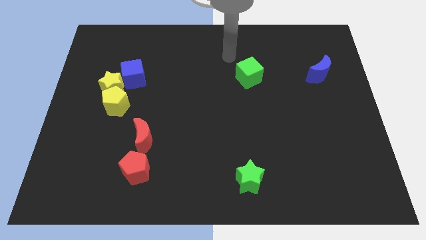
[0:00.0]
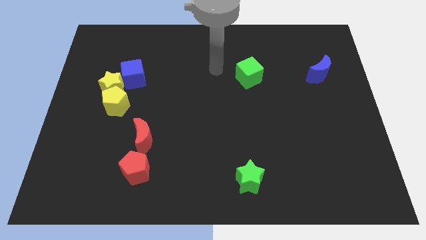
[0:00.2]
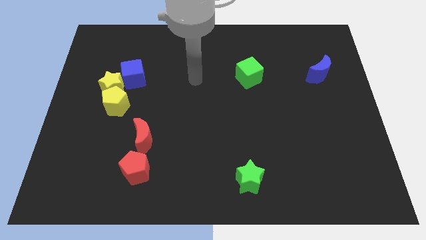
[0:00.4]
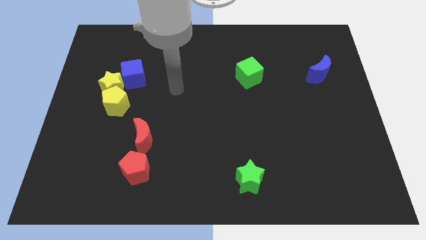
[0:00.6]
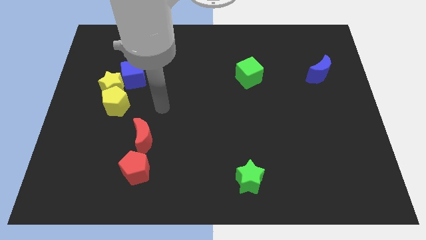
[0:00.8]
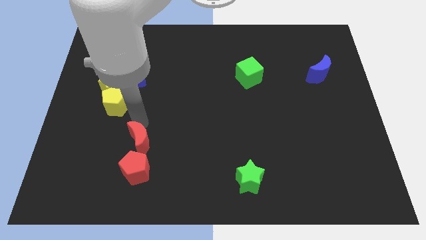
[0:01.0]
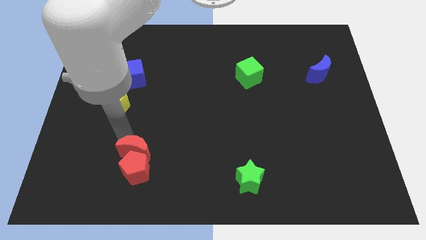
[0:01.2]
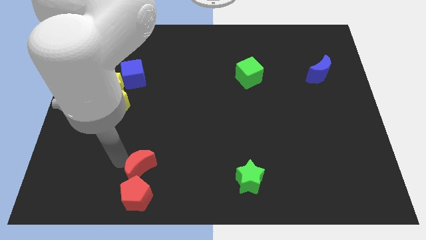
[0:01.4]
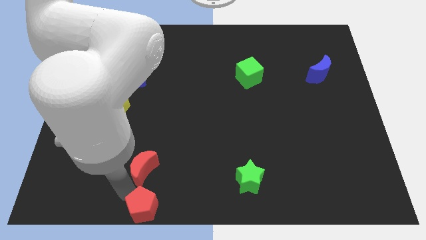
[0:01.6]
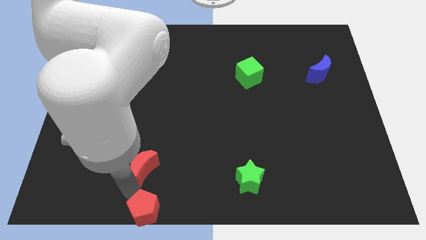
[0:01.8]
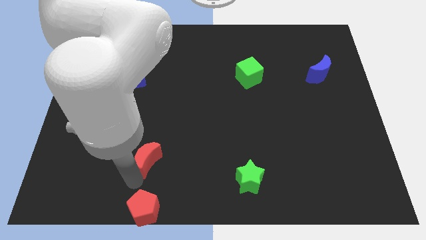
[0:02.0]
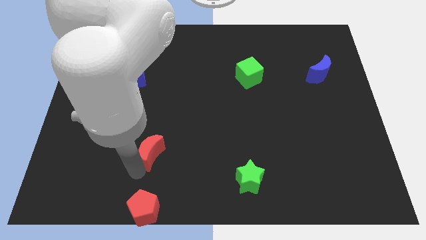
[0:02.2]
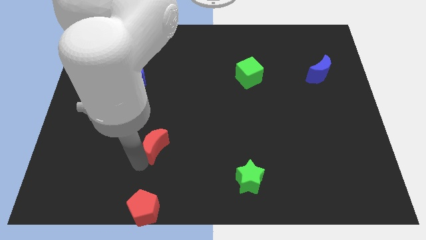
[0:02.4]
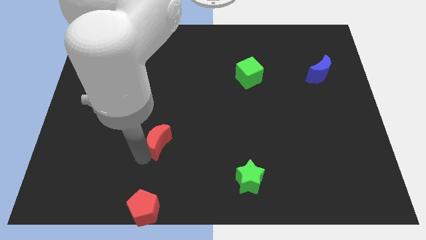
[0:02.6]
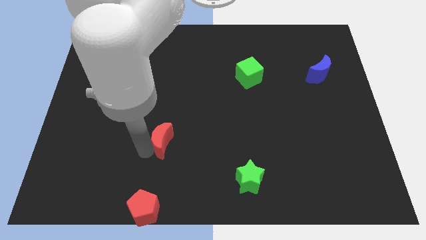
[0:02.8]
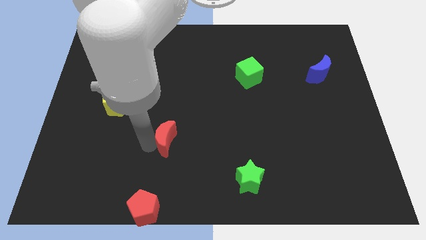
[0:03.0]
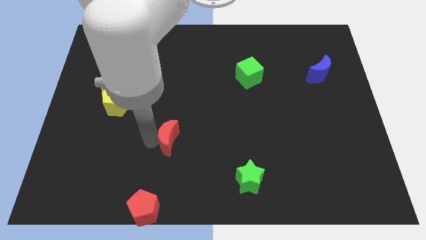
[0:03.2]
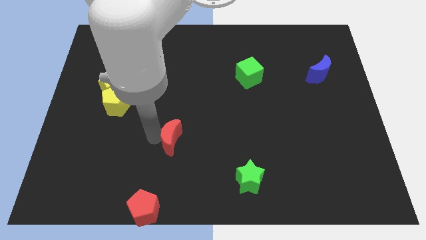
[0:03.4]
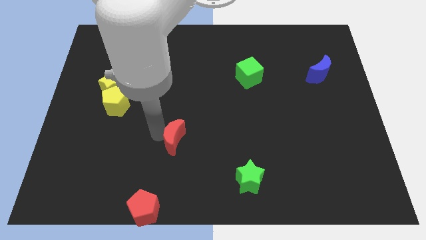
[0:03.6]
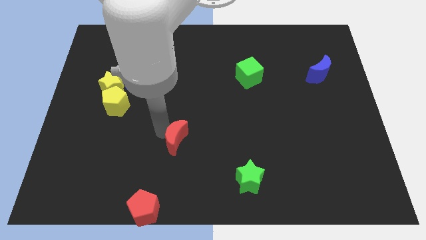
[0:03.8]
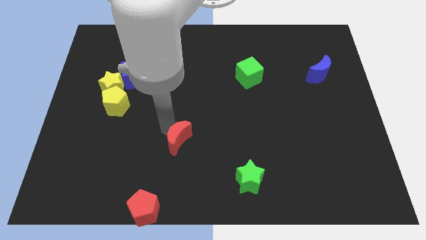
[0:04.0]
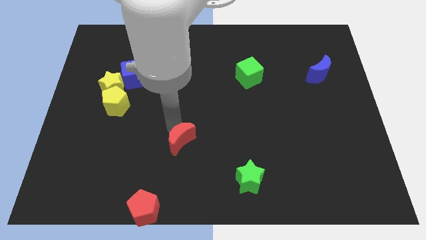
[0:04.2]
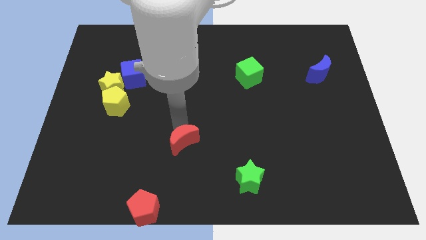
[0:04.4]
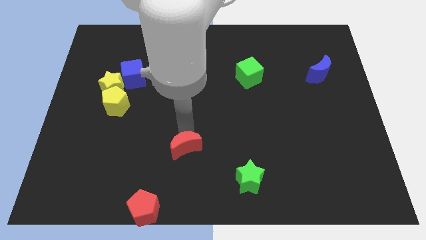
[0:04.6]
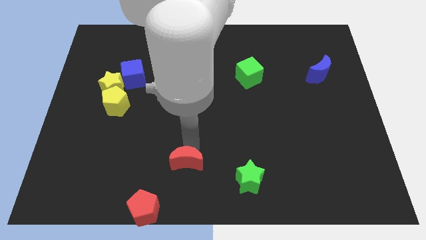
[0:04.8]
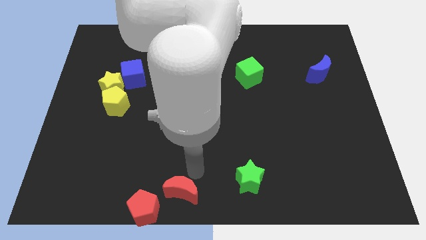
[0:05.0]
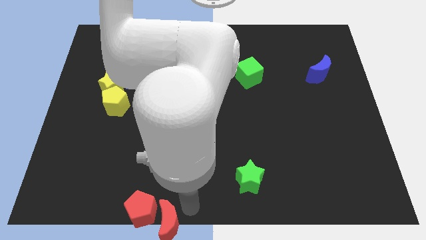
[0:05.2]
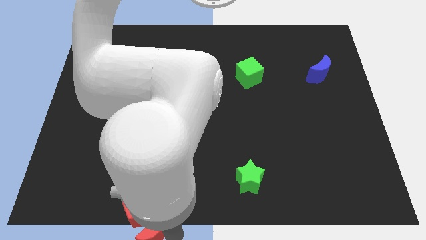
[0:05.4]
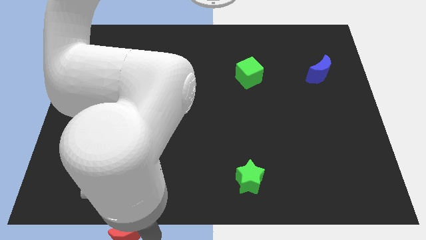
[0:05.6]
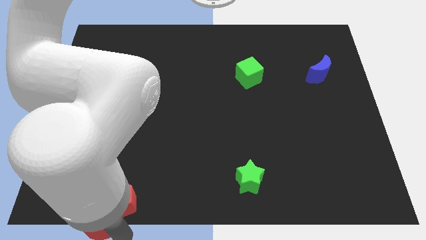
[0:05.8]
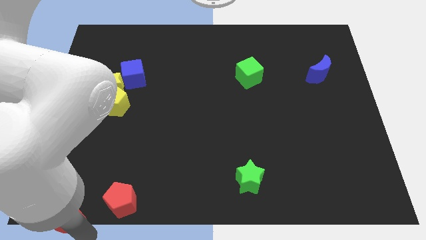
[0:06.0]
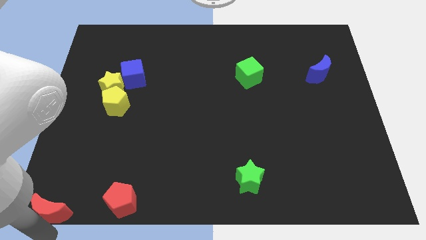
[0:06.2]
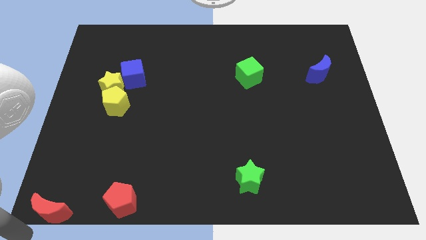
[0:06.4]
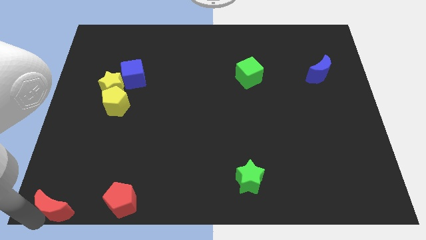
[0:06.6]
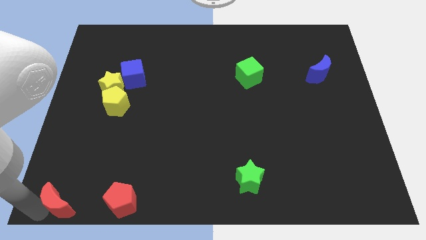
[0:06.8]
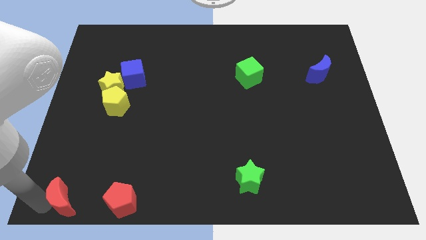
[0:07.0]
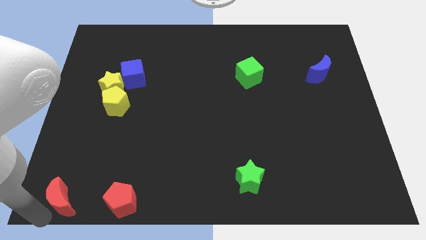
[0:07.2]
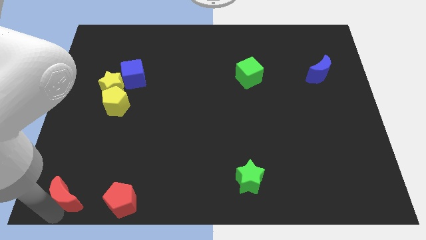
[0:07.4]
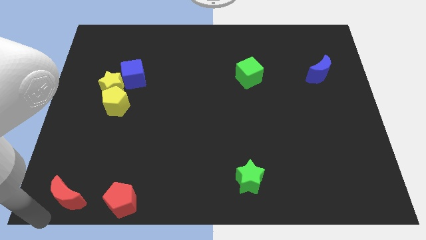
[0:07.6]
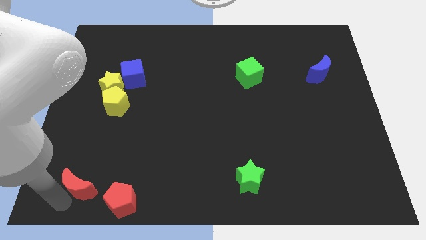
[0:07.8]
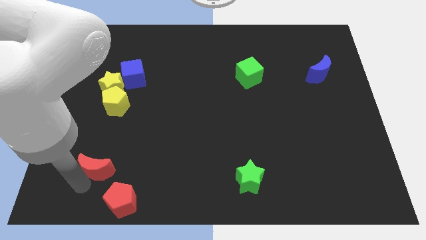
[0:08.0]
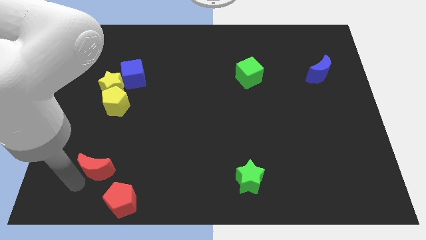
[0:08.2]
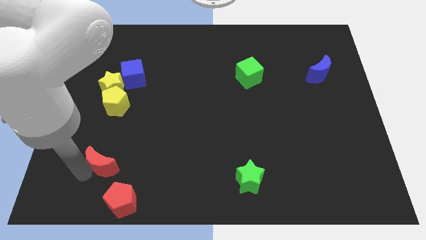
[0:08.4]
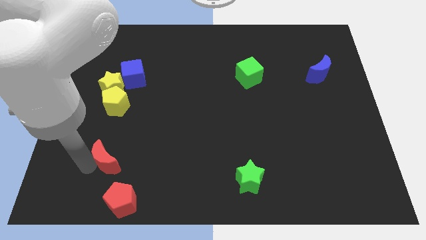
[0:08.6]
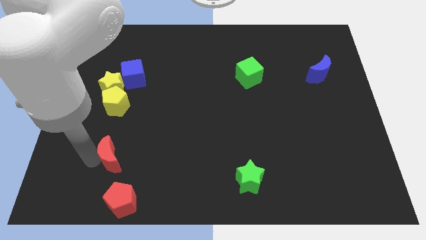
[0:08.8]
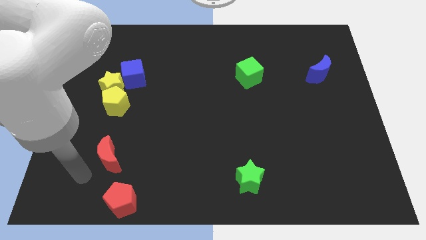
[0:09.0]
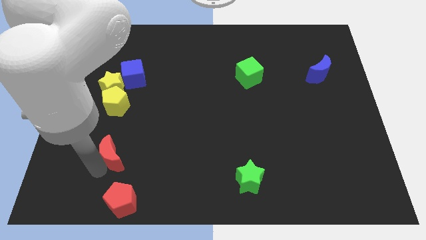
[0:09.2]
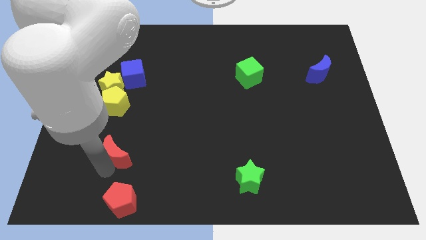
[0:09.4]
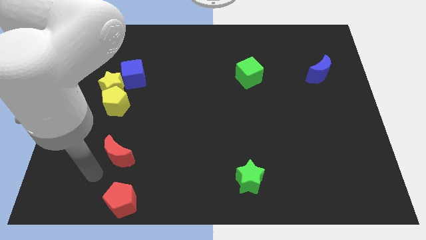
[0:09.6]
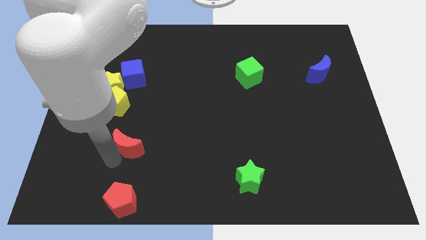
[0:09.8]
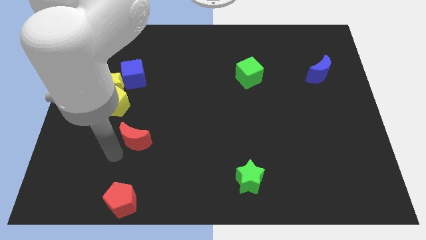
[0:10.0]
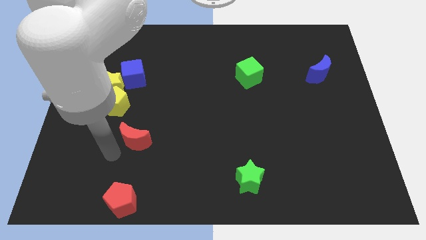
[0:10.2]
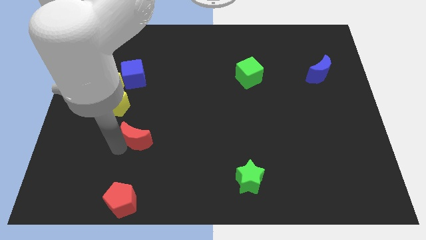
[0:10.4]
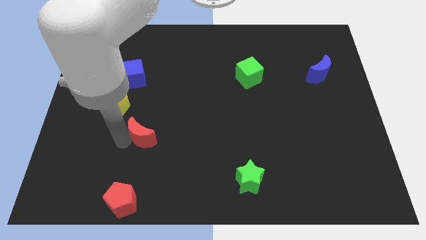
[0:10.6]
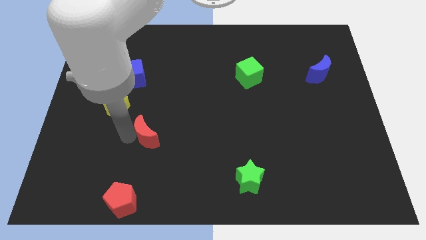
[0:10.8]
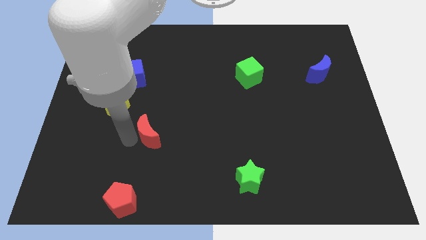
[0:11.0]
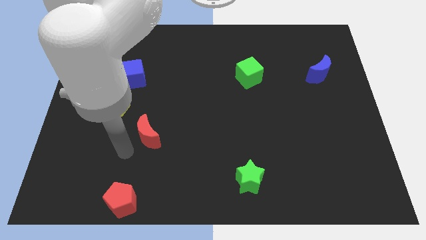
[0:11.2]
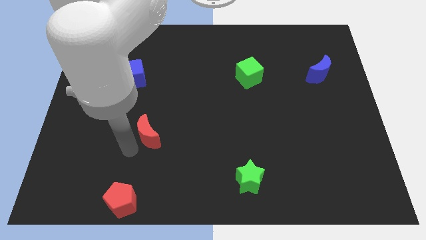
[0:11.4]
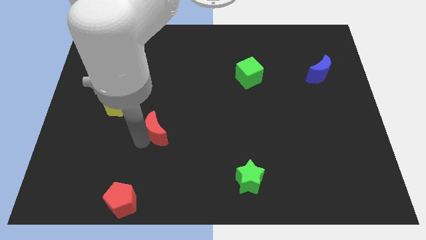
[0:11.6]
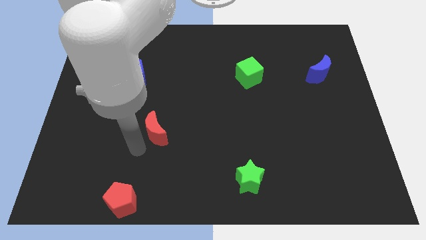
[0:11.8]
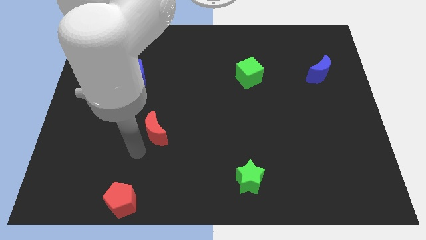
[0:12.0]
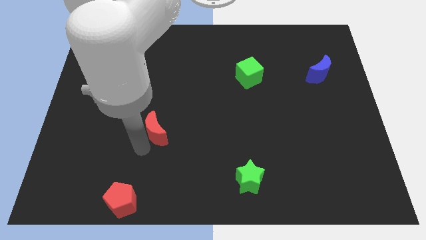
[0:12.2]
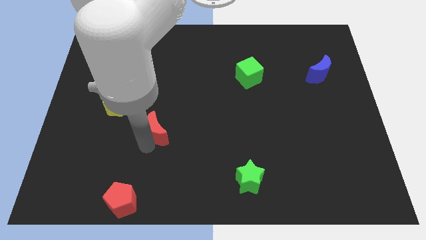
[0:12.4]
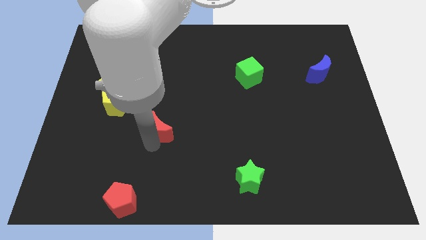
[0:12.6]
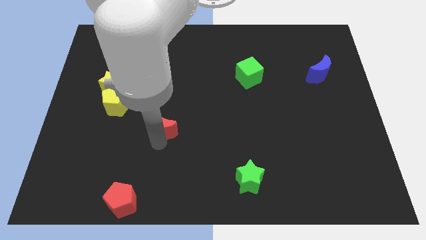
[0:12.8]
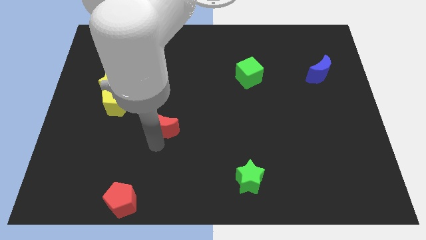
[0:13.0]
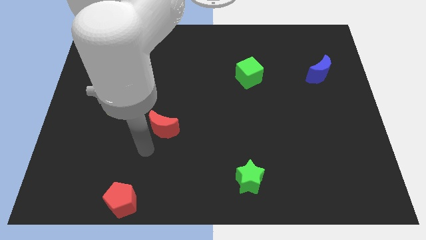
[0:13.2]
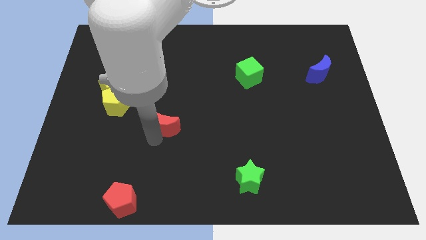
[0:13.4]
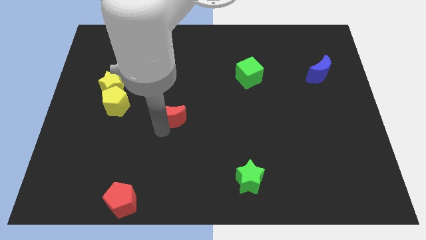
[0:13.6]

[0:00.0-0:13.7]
slide the red moon diagonally upwards and right a little

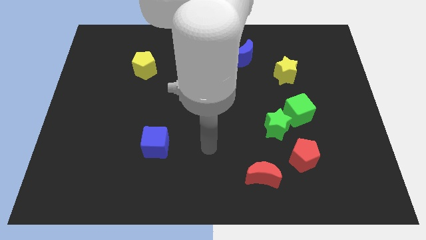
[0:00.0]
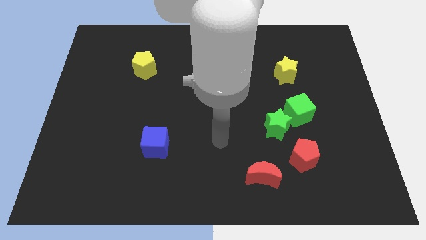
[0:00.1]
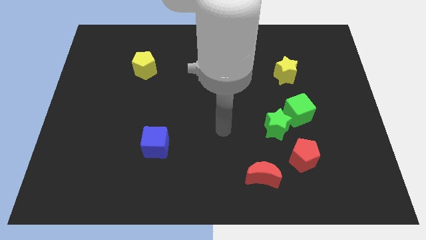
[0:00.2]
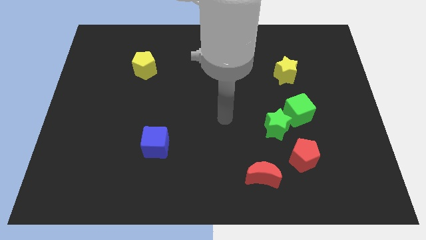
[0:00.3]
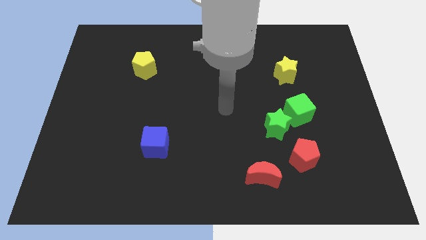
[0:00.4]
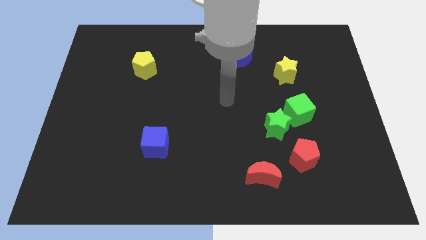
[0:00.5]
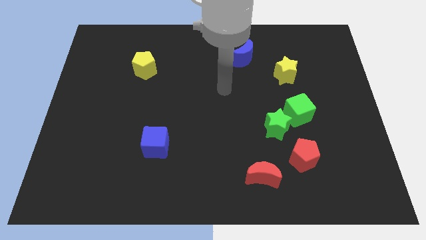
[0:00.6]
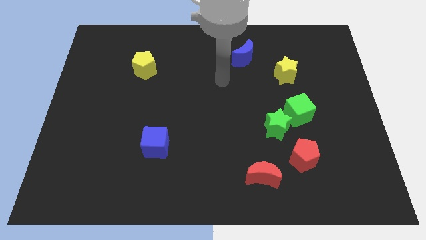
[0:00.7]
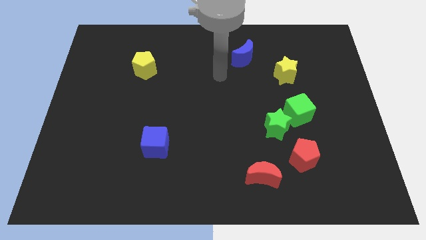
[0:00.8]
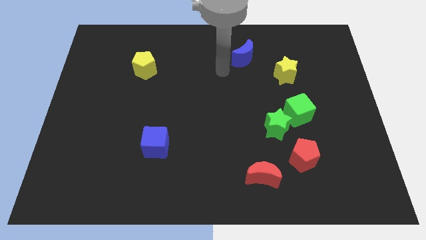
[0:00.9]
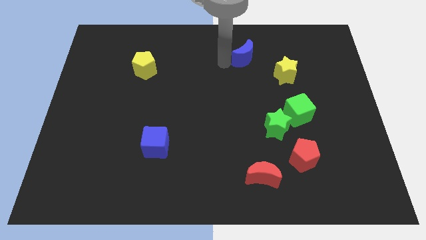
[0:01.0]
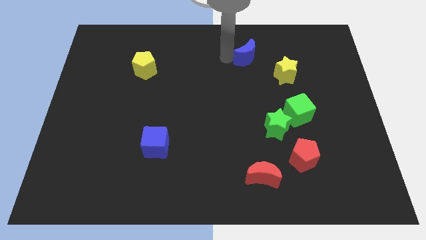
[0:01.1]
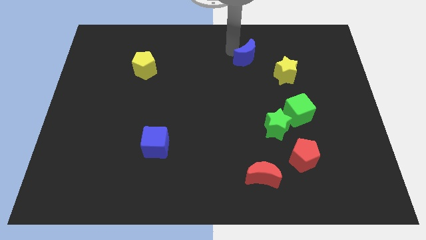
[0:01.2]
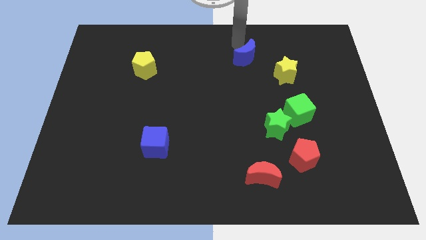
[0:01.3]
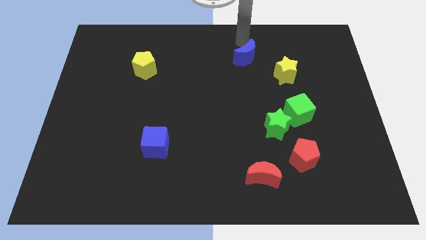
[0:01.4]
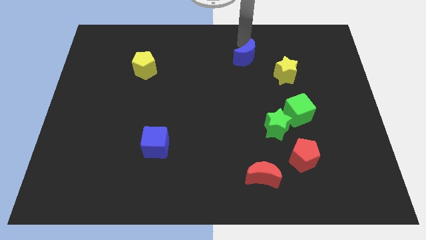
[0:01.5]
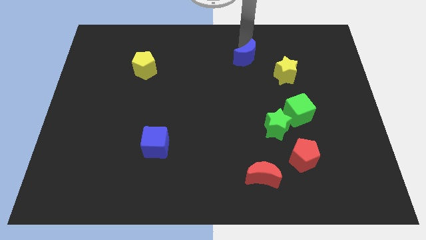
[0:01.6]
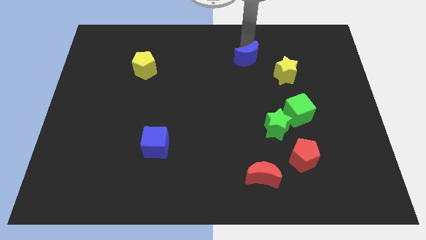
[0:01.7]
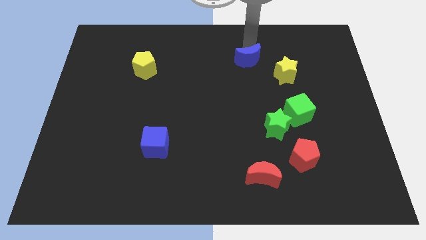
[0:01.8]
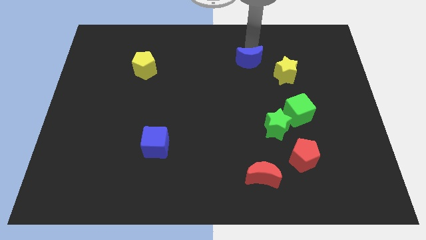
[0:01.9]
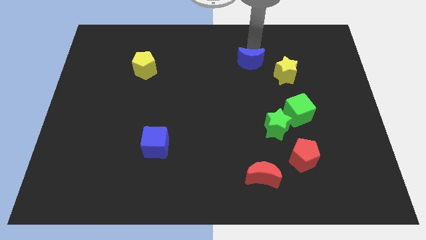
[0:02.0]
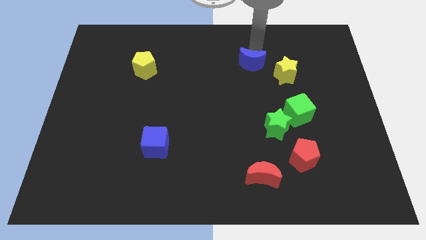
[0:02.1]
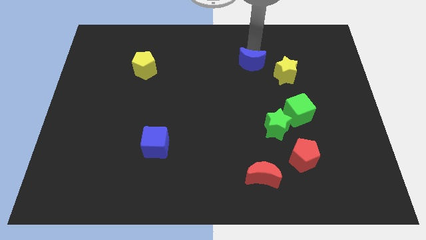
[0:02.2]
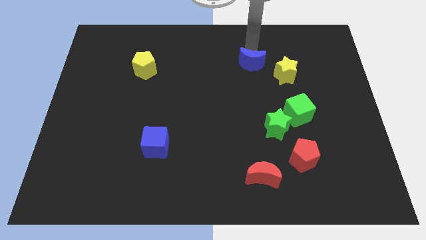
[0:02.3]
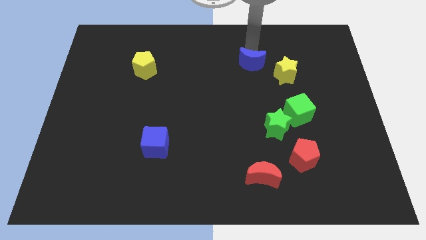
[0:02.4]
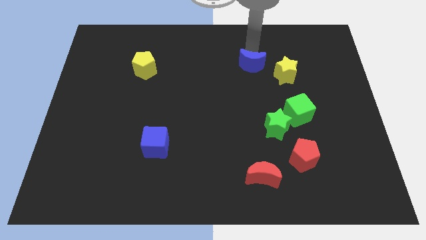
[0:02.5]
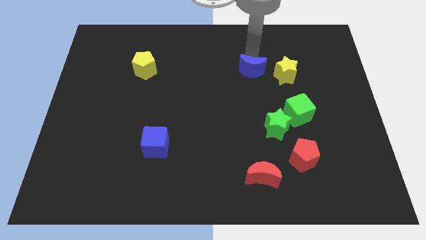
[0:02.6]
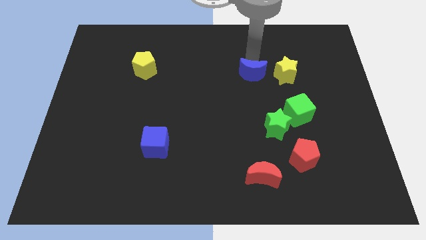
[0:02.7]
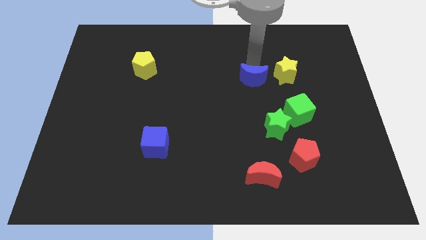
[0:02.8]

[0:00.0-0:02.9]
move the blue moon downwards a little
